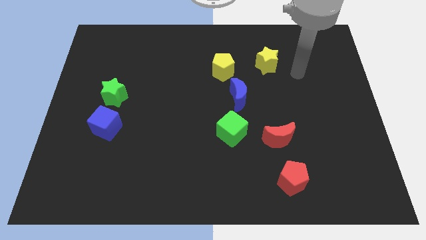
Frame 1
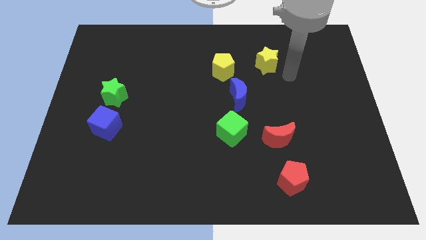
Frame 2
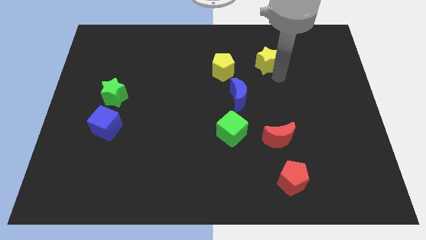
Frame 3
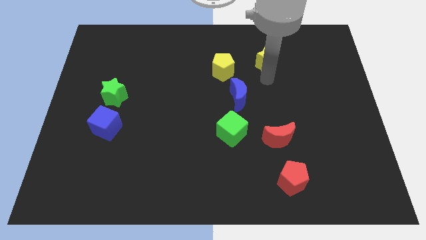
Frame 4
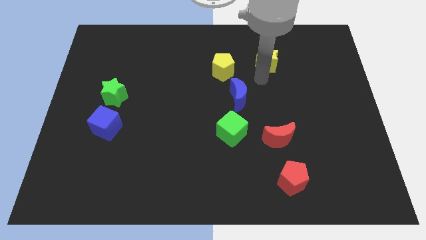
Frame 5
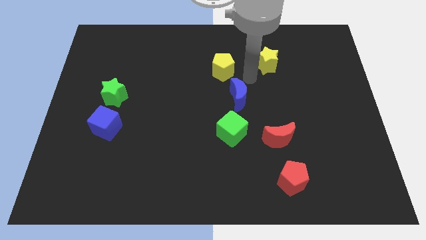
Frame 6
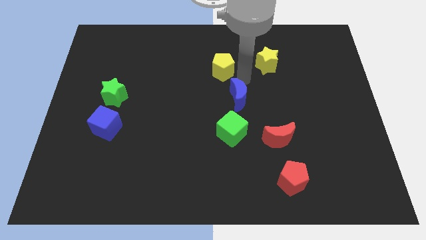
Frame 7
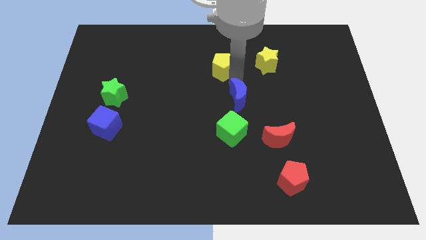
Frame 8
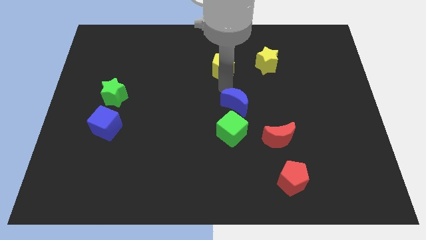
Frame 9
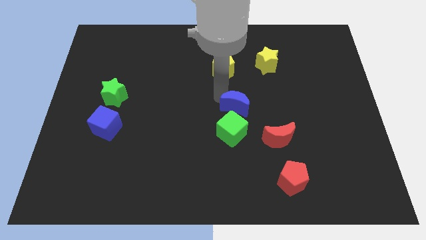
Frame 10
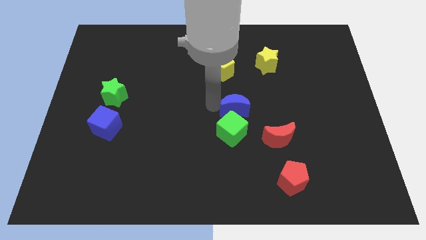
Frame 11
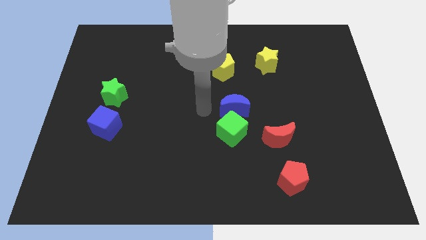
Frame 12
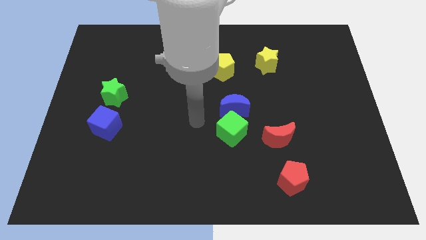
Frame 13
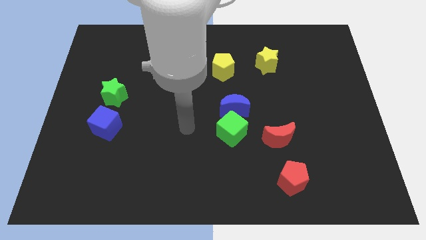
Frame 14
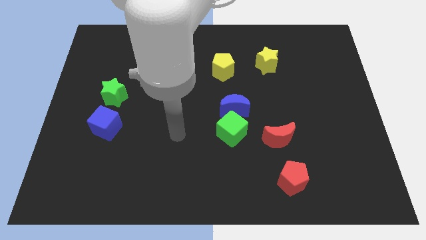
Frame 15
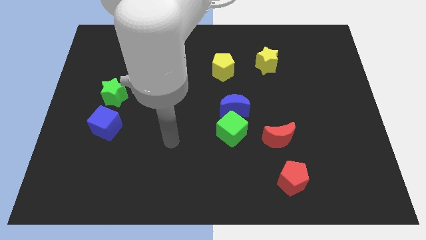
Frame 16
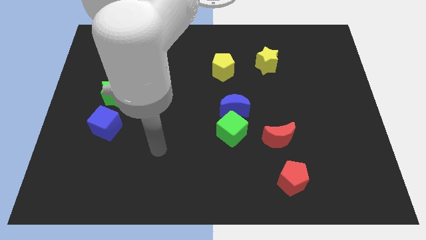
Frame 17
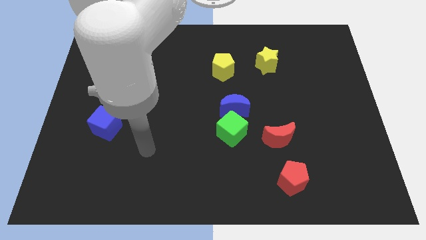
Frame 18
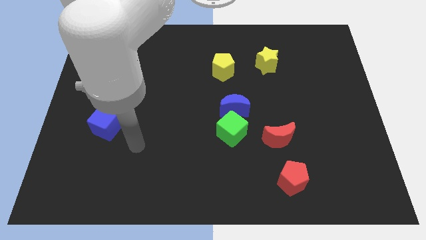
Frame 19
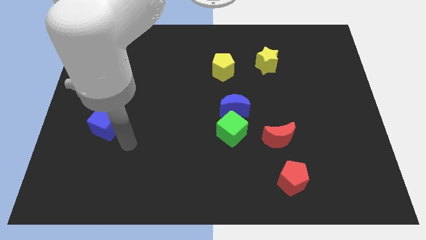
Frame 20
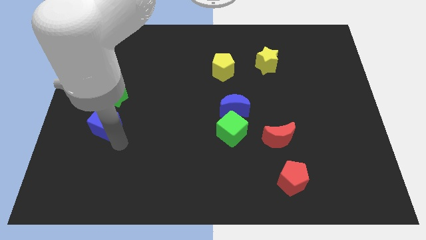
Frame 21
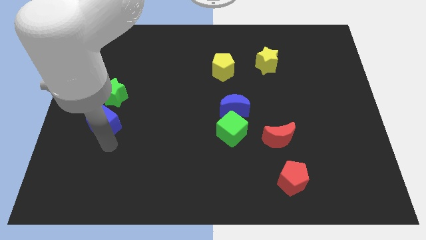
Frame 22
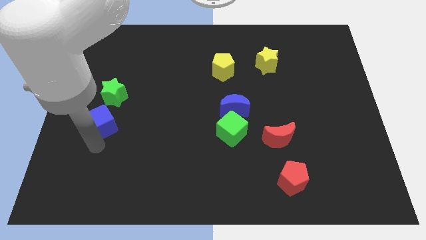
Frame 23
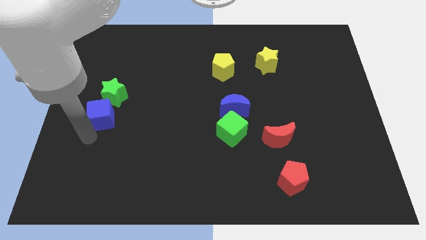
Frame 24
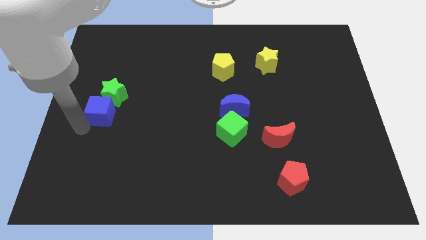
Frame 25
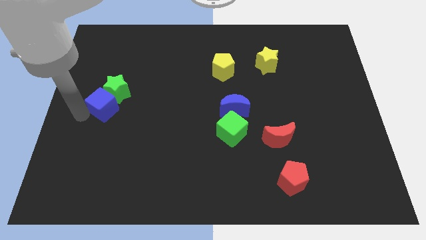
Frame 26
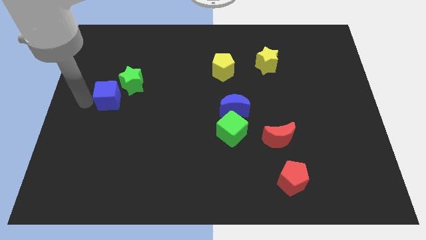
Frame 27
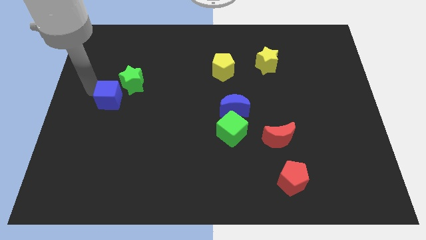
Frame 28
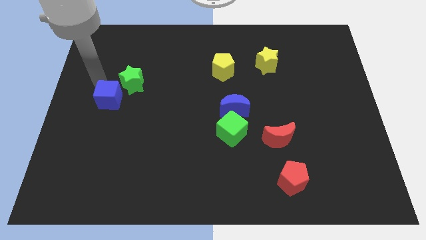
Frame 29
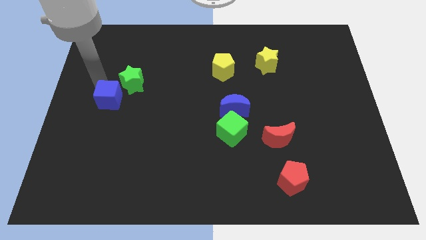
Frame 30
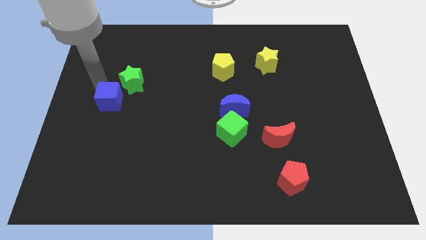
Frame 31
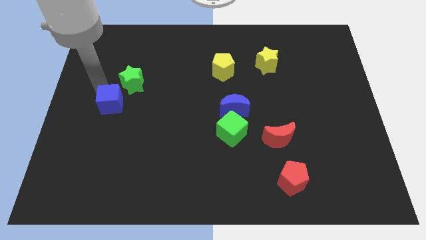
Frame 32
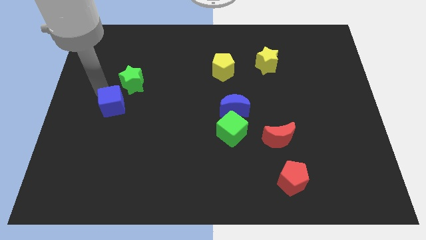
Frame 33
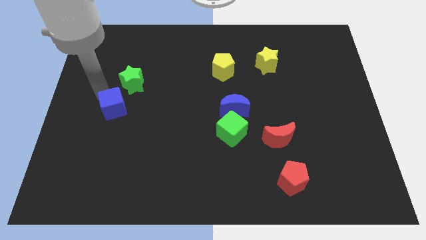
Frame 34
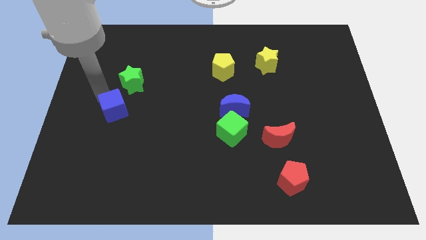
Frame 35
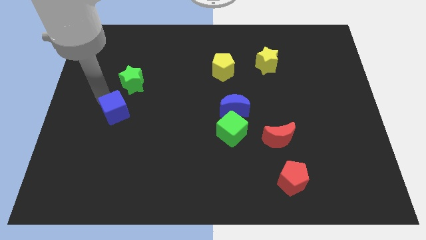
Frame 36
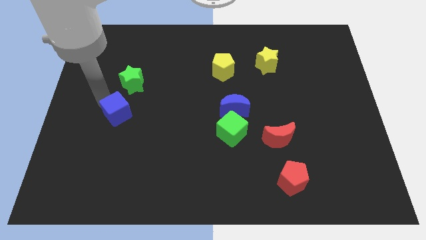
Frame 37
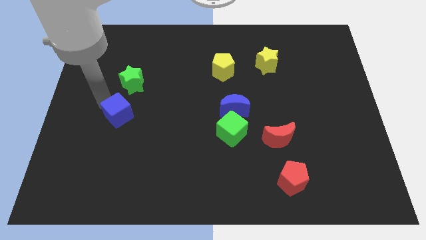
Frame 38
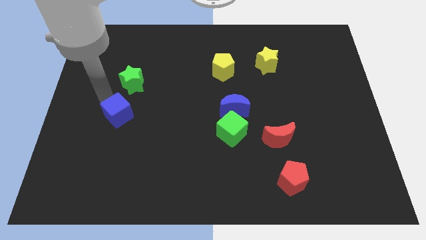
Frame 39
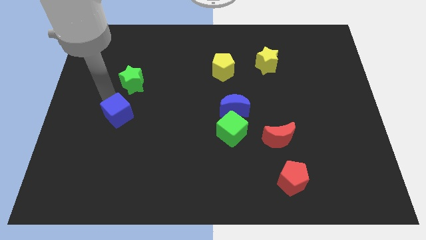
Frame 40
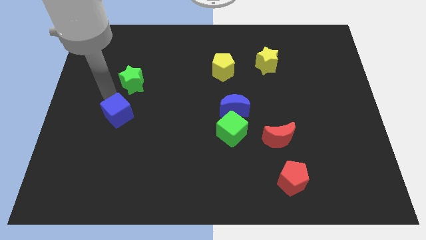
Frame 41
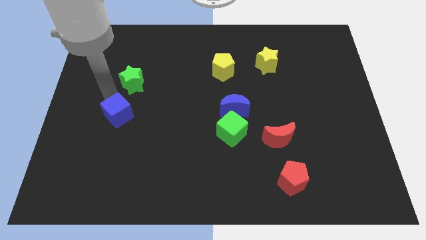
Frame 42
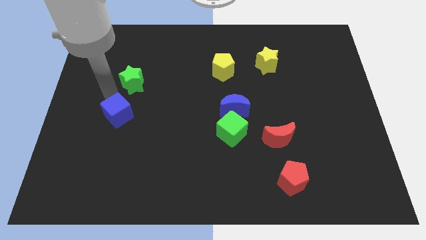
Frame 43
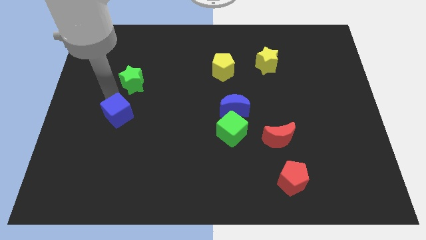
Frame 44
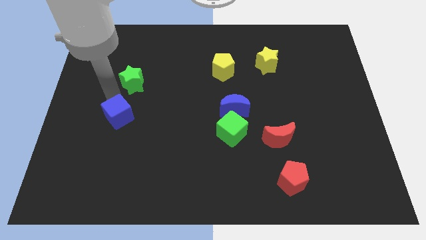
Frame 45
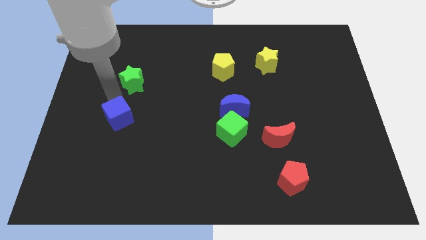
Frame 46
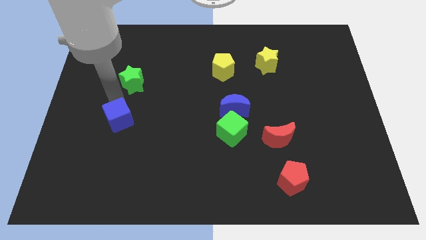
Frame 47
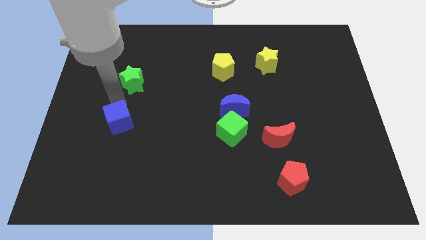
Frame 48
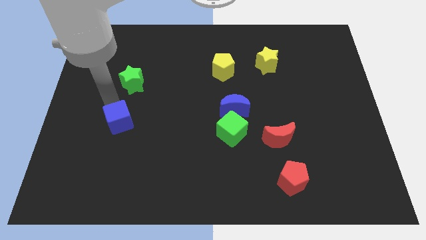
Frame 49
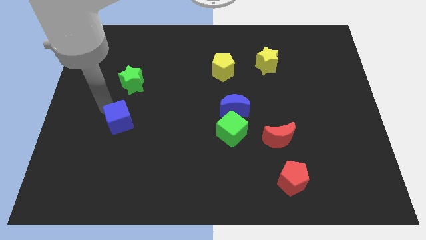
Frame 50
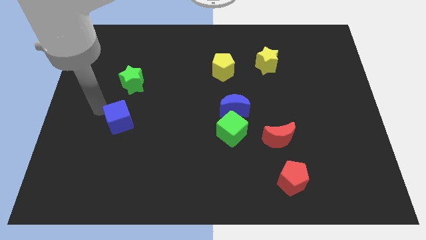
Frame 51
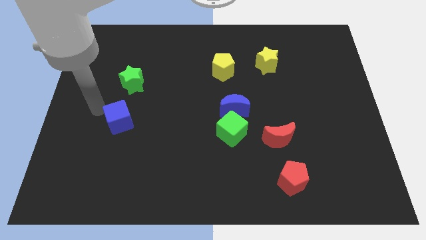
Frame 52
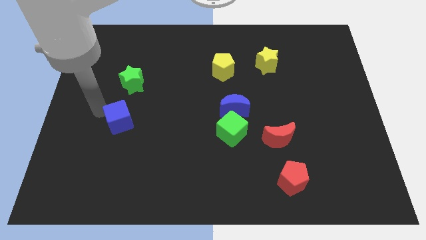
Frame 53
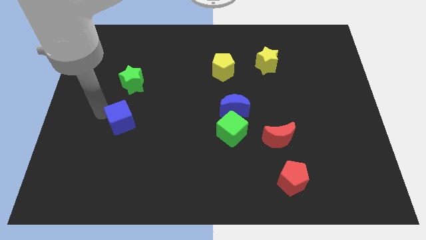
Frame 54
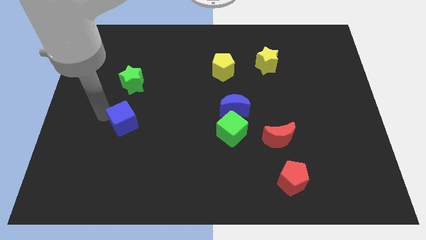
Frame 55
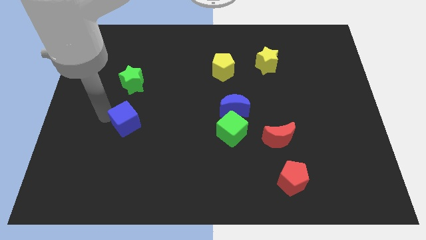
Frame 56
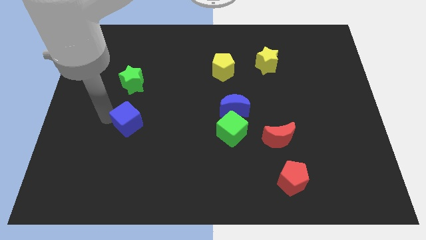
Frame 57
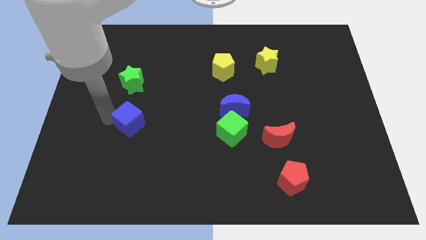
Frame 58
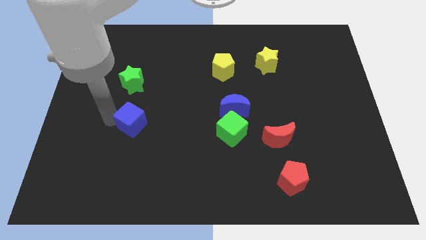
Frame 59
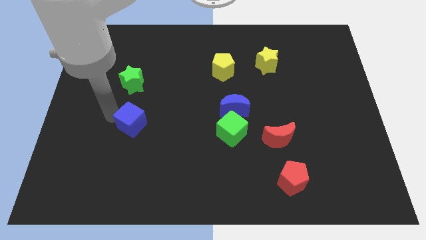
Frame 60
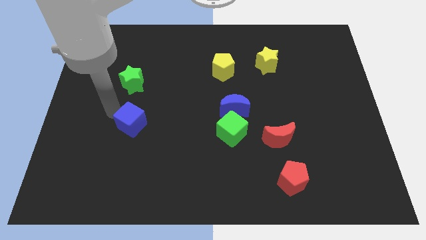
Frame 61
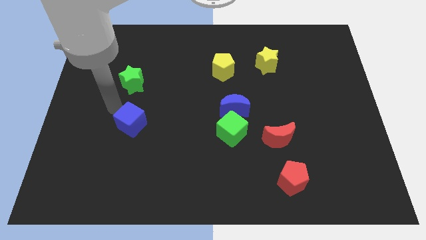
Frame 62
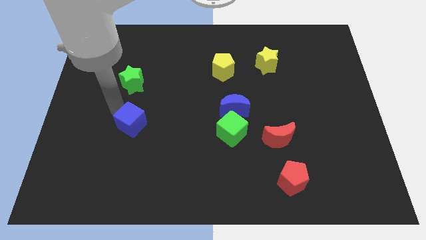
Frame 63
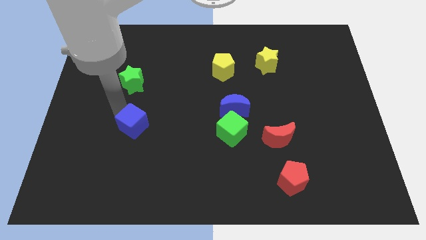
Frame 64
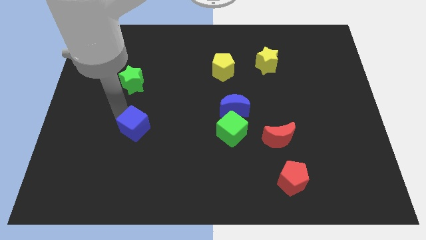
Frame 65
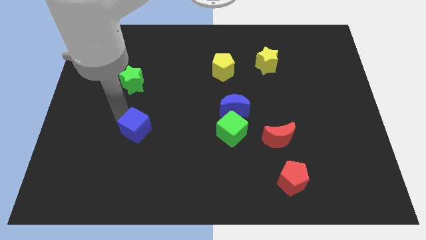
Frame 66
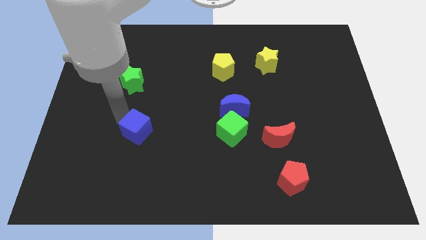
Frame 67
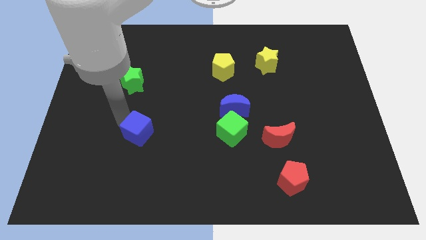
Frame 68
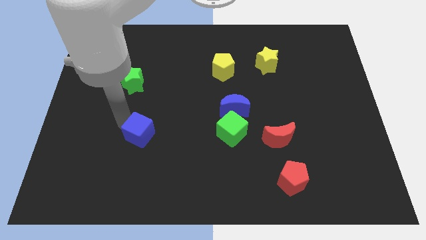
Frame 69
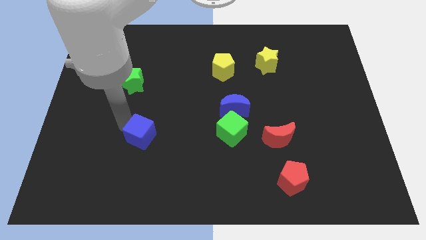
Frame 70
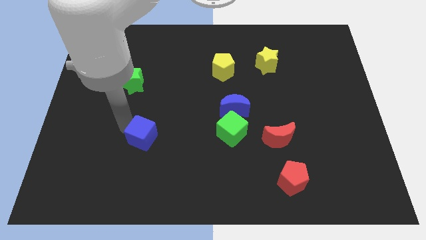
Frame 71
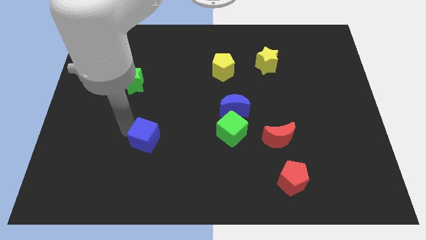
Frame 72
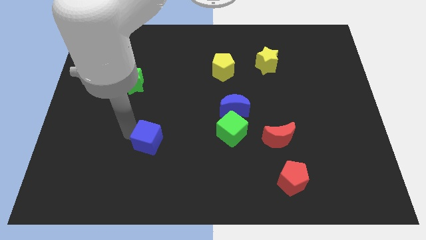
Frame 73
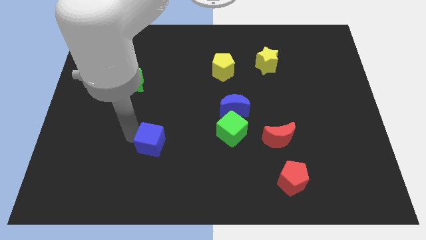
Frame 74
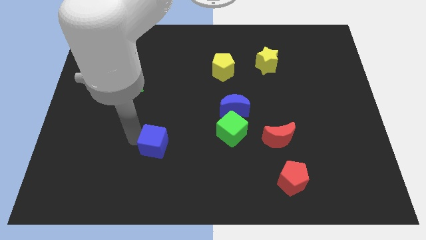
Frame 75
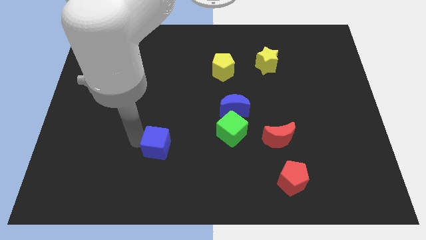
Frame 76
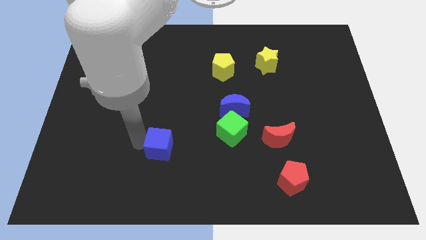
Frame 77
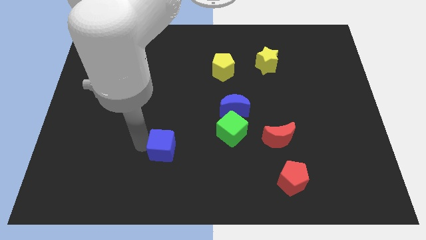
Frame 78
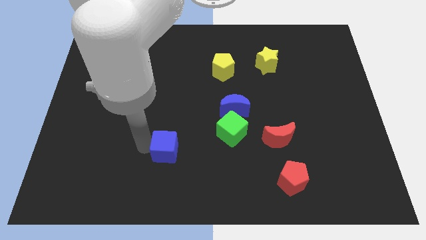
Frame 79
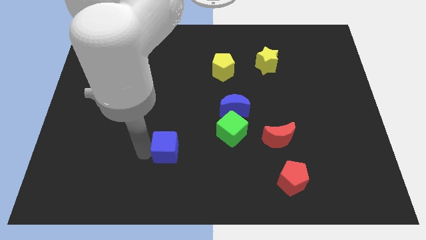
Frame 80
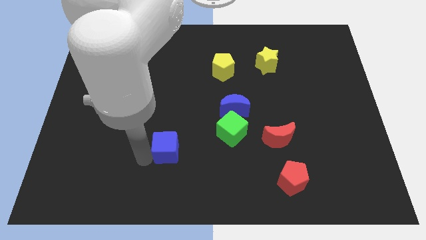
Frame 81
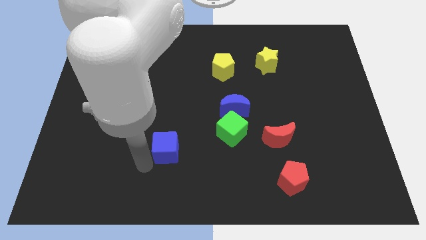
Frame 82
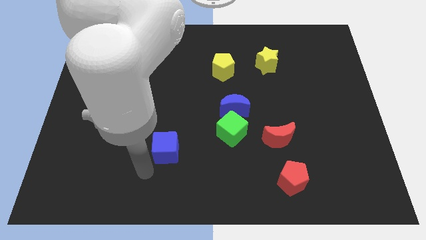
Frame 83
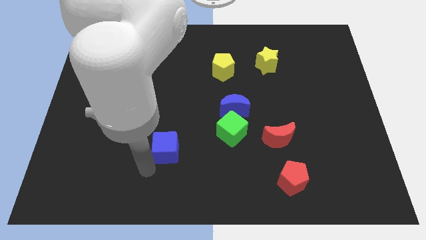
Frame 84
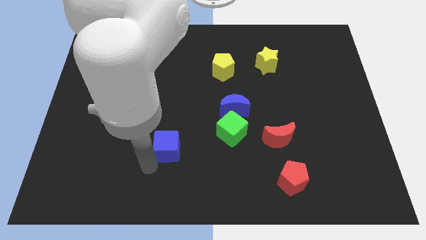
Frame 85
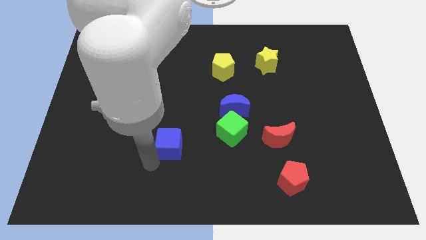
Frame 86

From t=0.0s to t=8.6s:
move the blue cube to the left of the green cube
